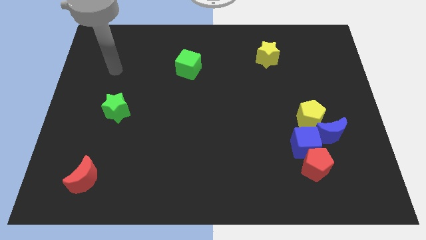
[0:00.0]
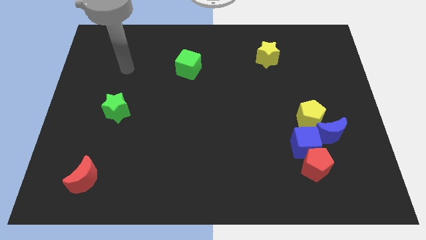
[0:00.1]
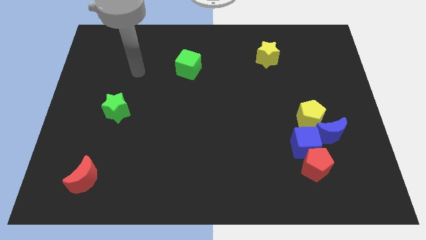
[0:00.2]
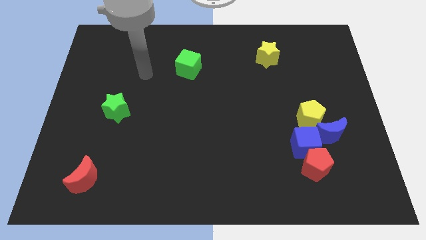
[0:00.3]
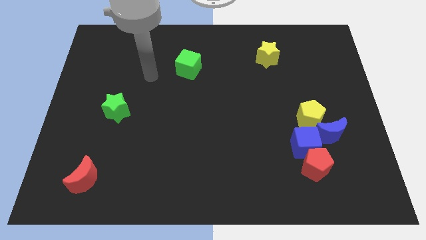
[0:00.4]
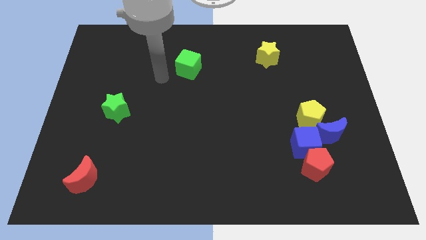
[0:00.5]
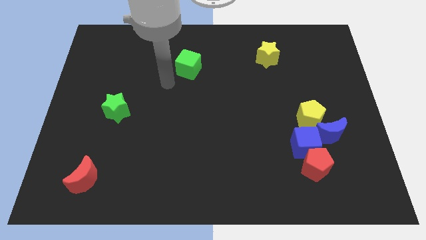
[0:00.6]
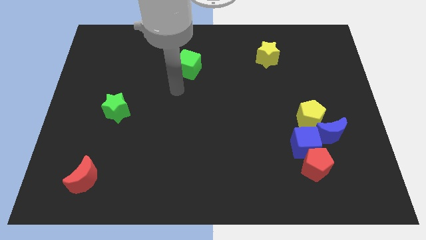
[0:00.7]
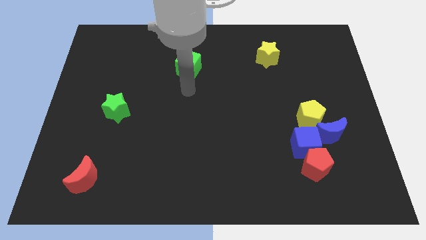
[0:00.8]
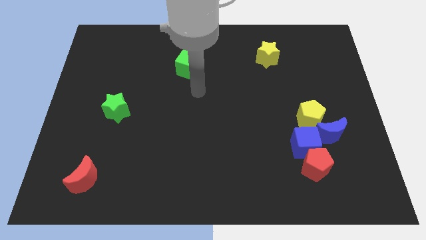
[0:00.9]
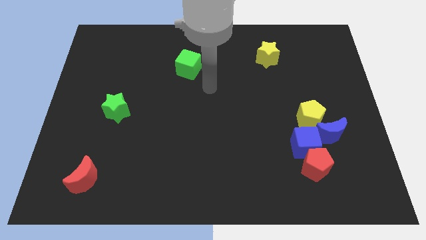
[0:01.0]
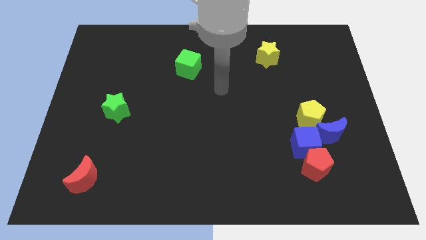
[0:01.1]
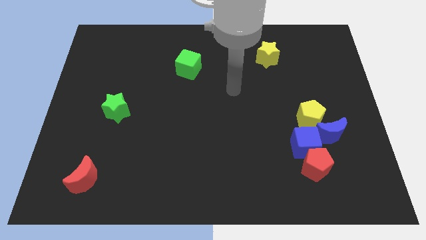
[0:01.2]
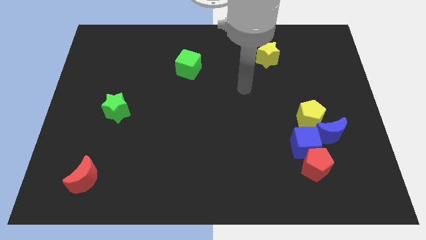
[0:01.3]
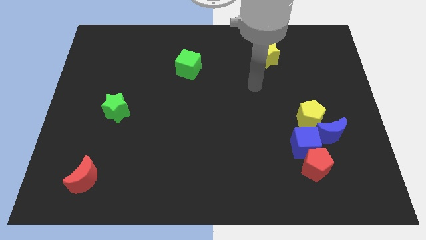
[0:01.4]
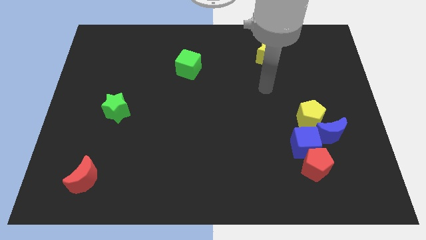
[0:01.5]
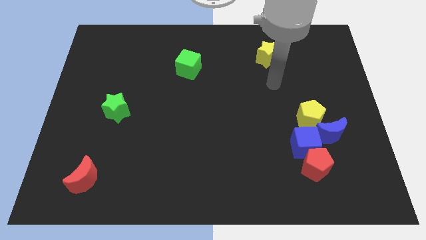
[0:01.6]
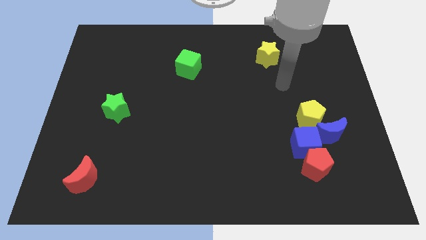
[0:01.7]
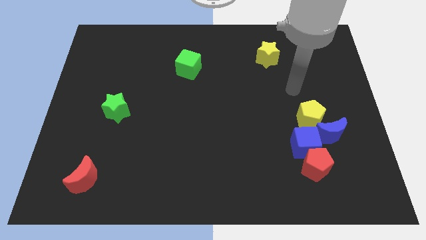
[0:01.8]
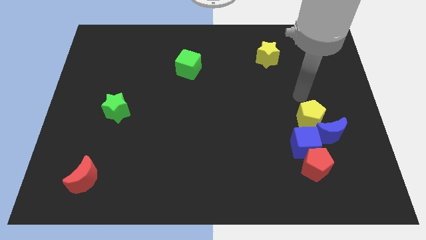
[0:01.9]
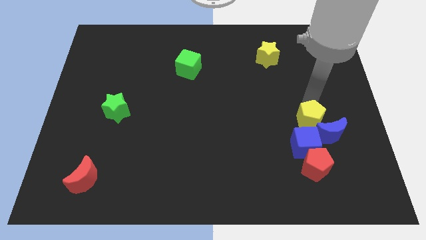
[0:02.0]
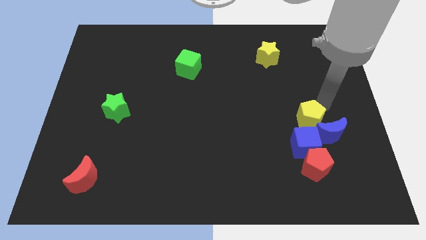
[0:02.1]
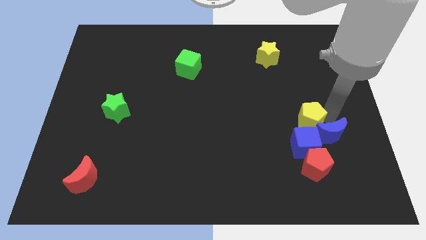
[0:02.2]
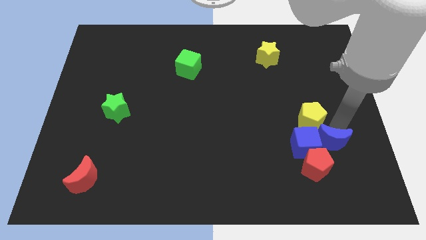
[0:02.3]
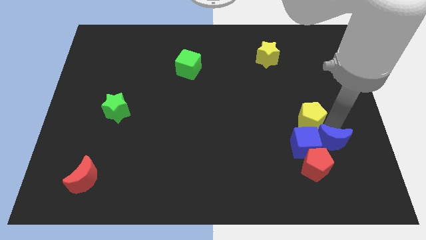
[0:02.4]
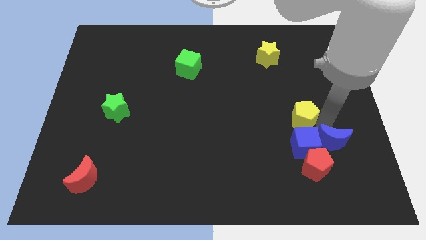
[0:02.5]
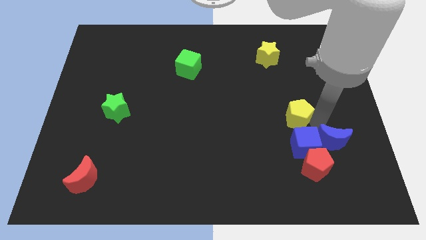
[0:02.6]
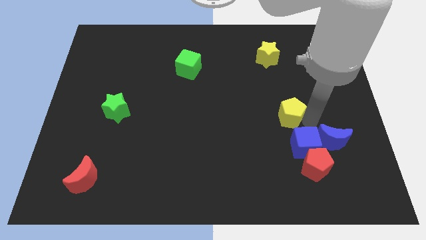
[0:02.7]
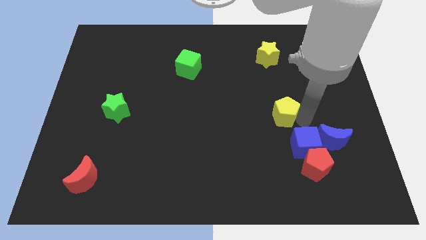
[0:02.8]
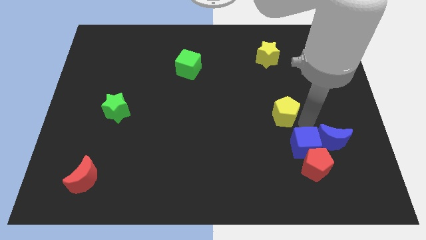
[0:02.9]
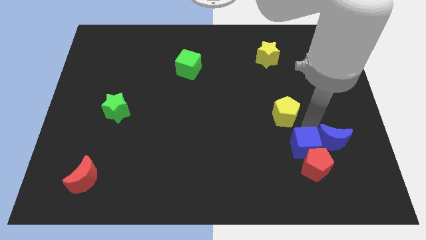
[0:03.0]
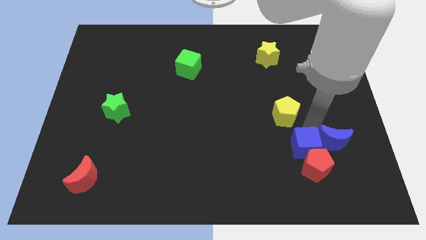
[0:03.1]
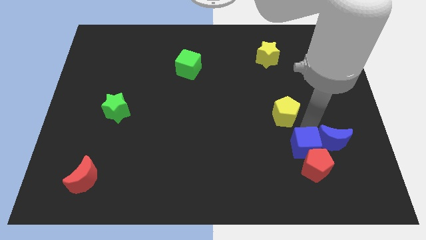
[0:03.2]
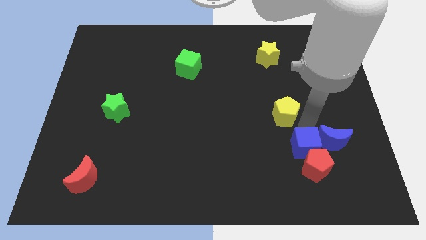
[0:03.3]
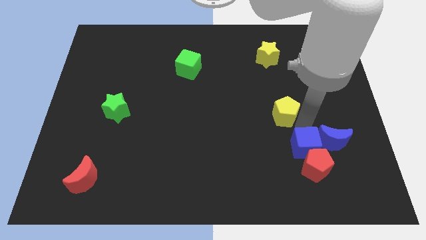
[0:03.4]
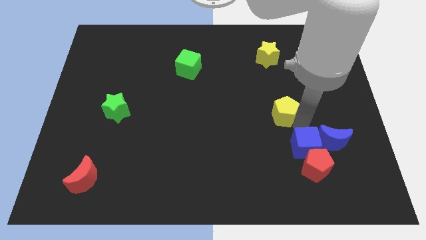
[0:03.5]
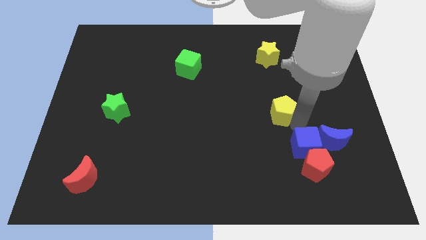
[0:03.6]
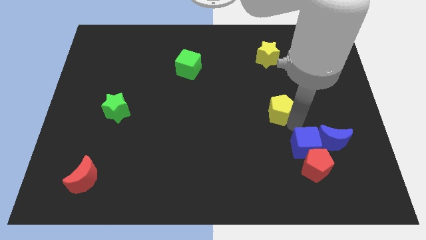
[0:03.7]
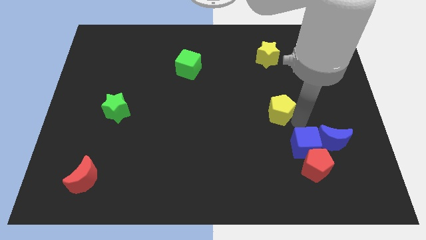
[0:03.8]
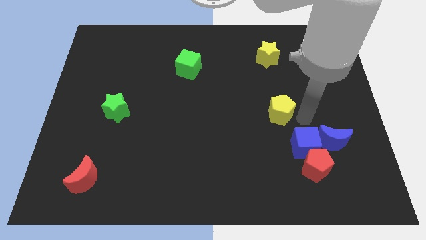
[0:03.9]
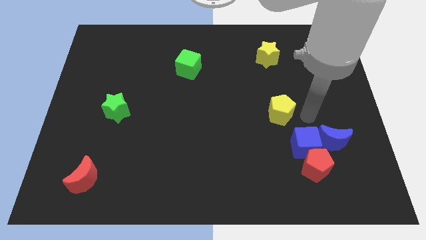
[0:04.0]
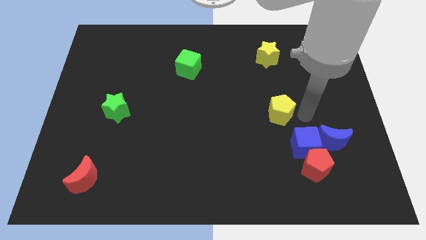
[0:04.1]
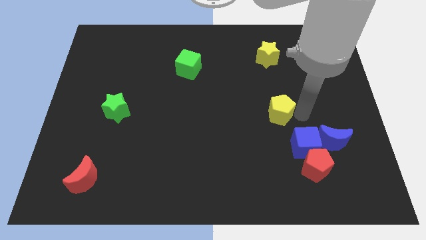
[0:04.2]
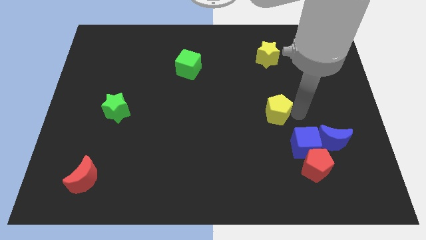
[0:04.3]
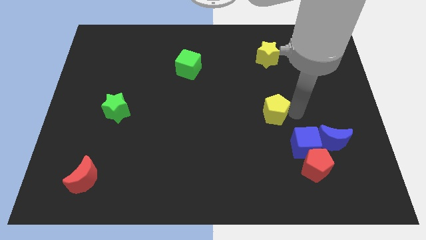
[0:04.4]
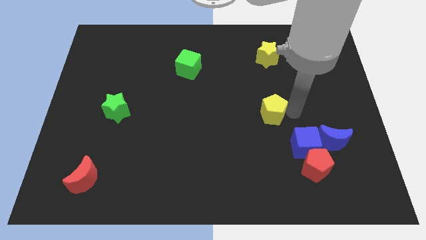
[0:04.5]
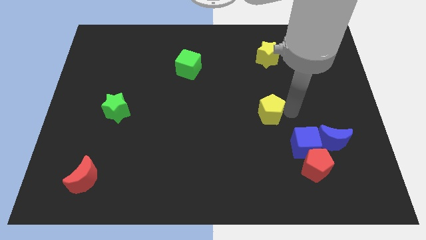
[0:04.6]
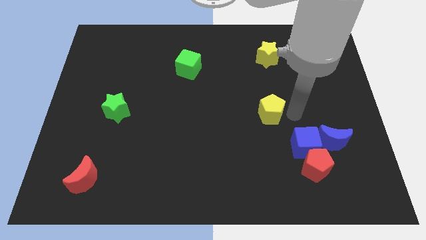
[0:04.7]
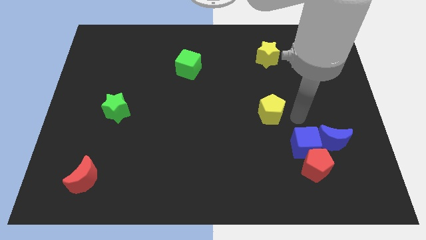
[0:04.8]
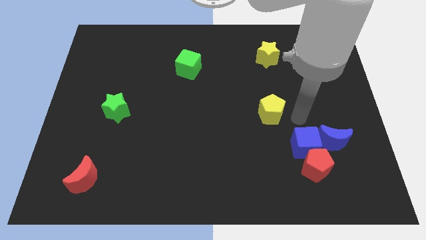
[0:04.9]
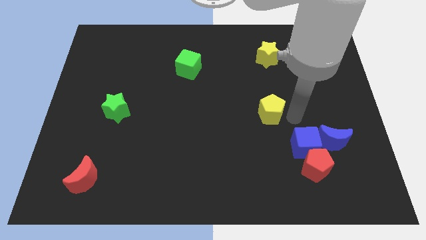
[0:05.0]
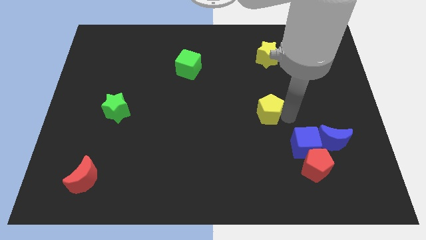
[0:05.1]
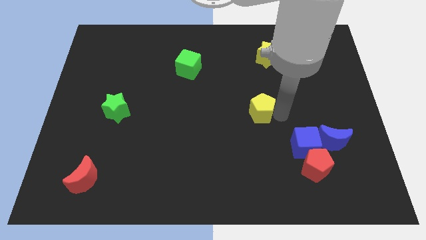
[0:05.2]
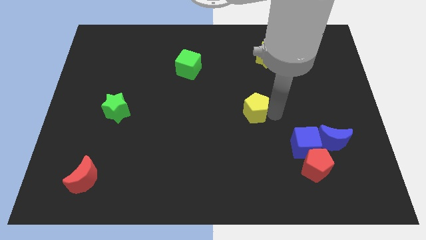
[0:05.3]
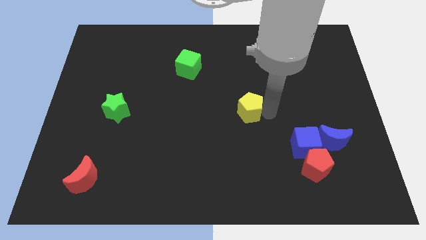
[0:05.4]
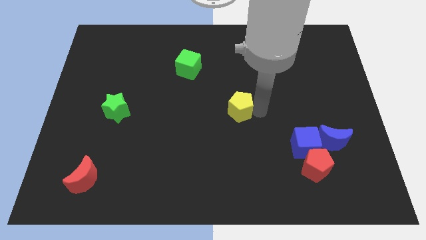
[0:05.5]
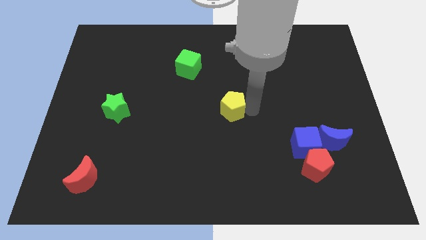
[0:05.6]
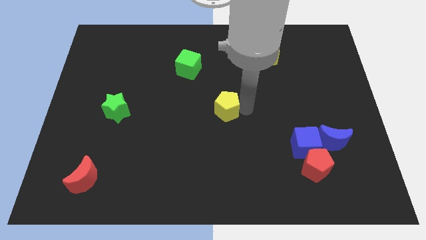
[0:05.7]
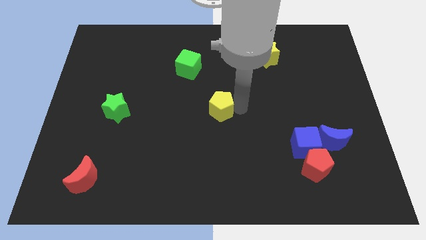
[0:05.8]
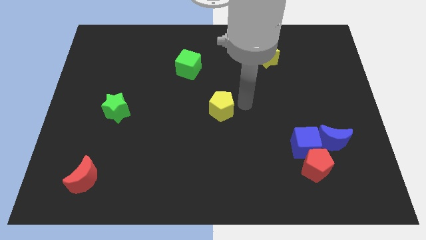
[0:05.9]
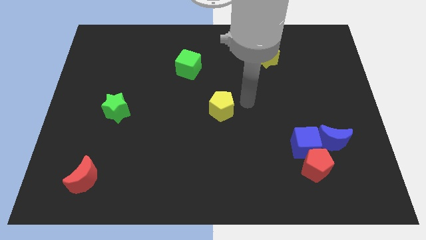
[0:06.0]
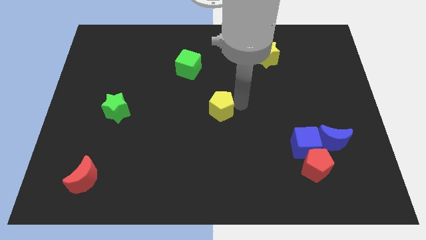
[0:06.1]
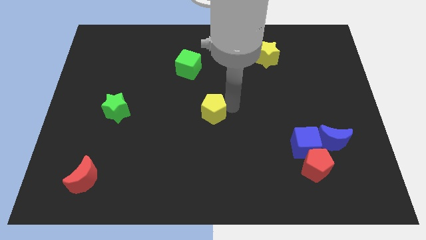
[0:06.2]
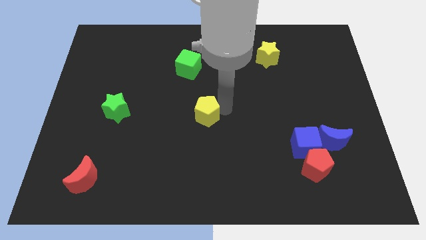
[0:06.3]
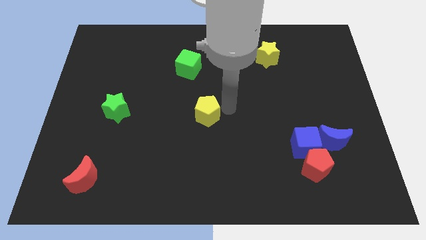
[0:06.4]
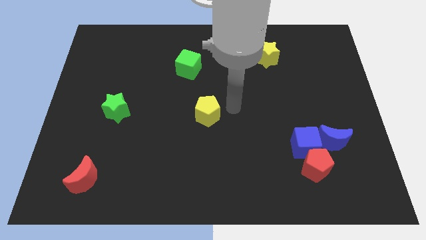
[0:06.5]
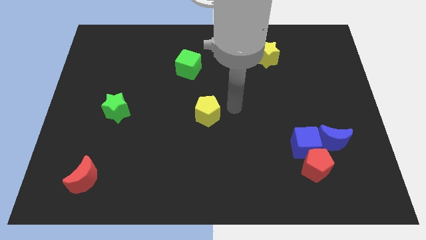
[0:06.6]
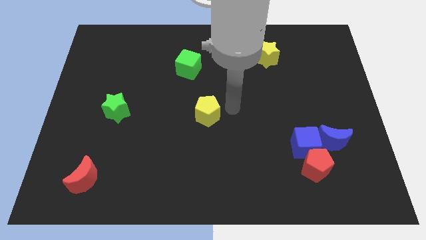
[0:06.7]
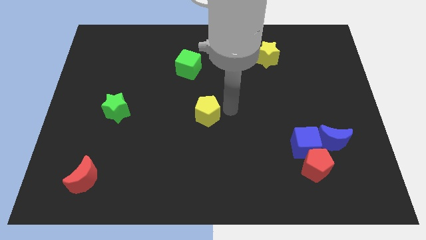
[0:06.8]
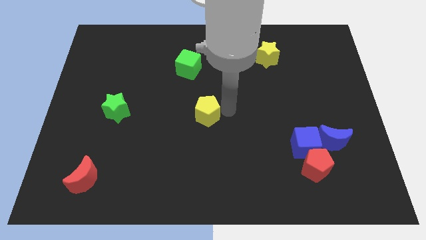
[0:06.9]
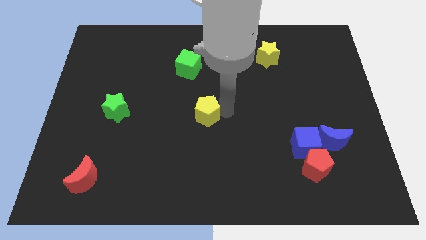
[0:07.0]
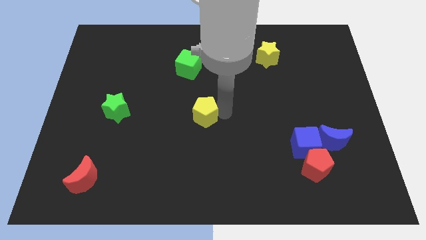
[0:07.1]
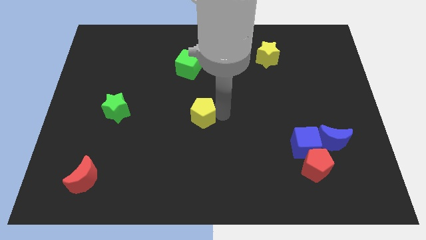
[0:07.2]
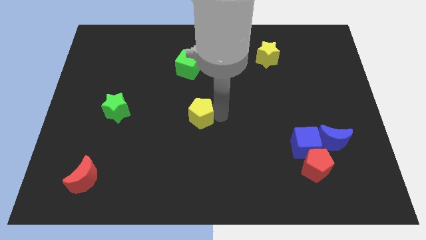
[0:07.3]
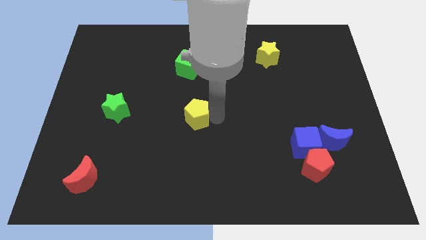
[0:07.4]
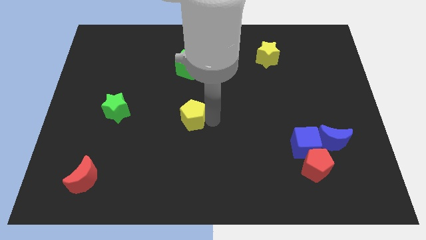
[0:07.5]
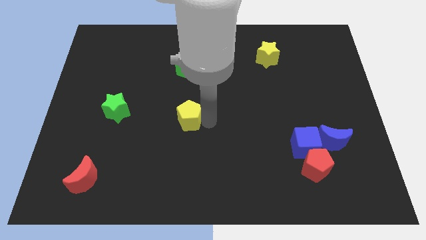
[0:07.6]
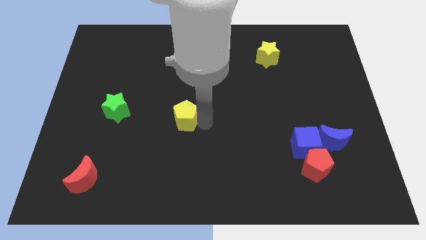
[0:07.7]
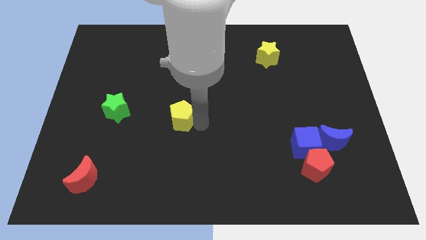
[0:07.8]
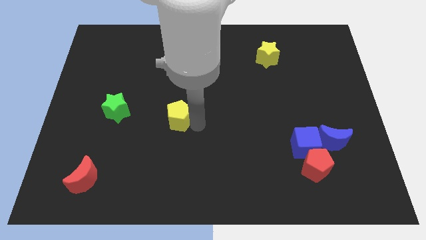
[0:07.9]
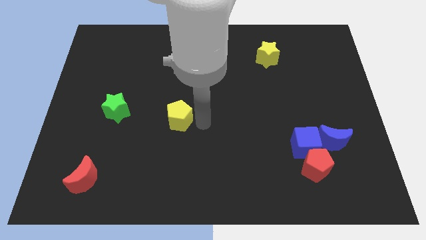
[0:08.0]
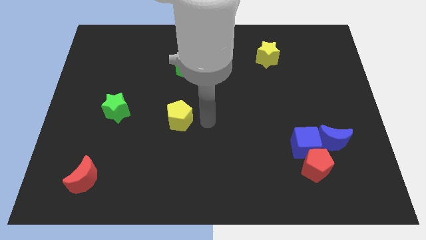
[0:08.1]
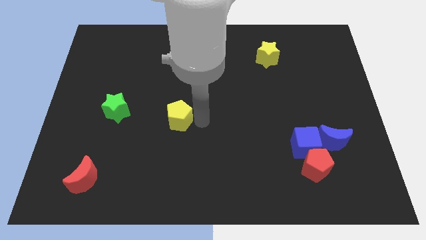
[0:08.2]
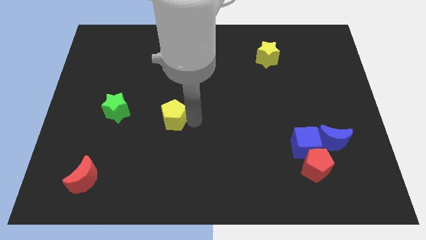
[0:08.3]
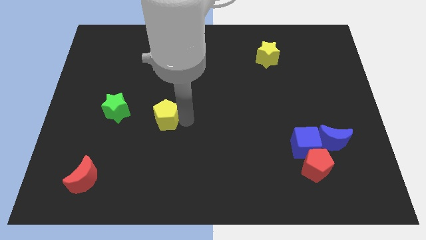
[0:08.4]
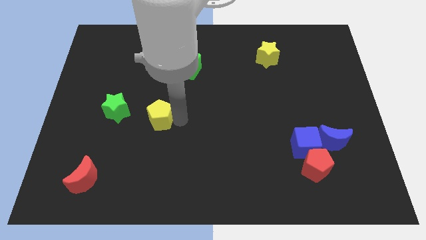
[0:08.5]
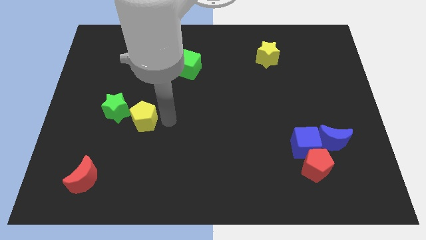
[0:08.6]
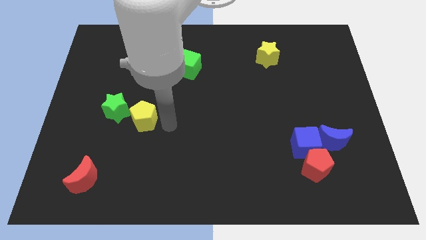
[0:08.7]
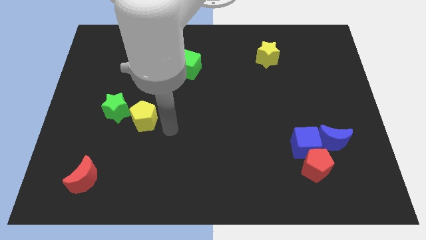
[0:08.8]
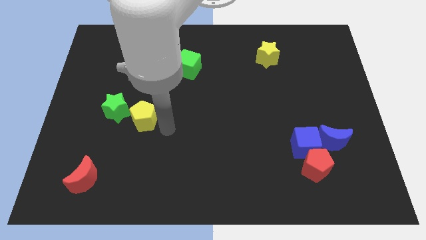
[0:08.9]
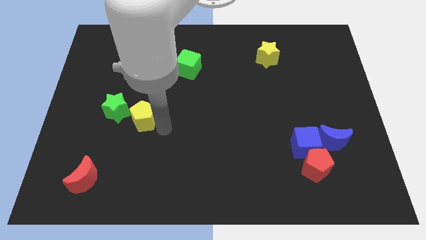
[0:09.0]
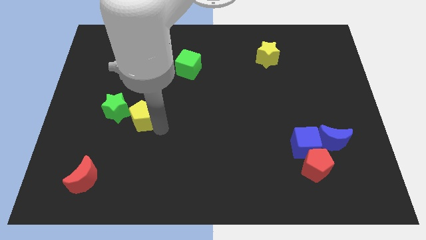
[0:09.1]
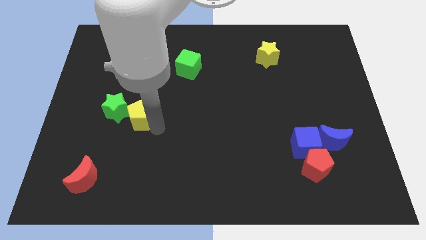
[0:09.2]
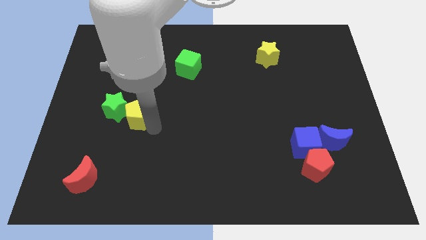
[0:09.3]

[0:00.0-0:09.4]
push the yellow pentagon towards the green star
